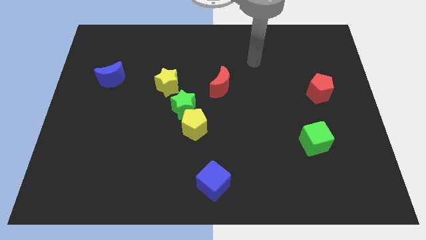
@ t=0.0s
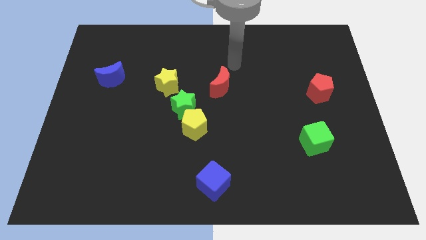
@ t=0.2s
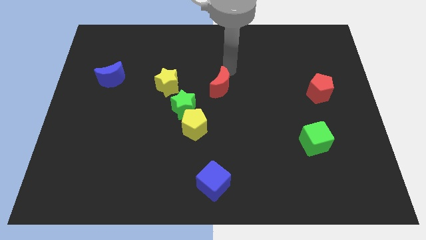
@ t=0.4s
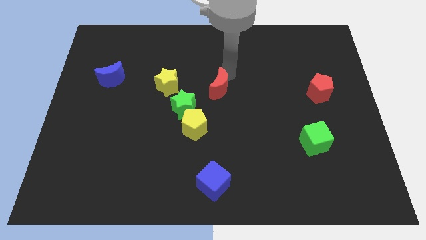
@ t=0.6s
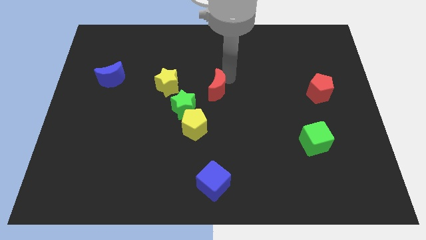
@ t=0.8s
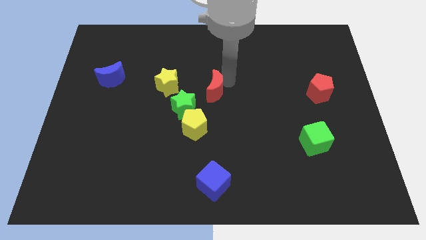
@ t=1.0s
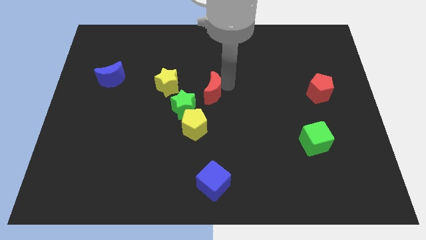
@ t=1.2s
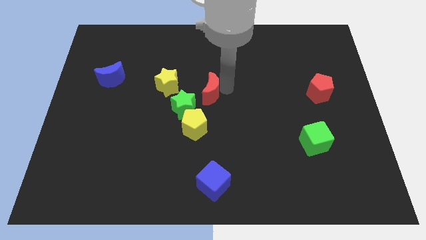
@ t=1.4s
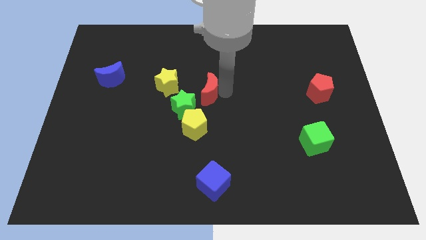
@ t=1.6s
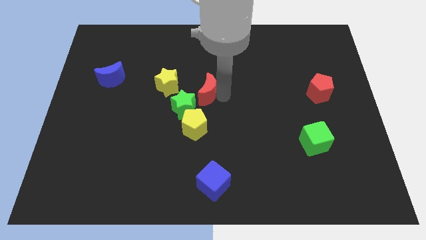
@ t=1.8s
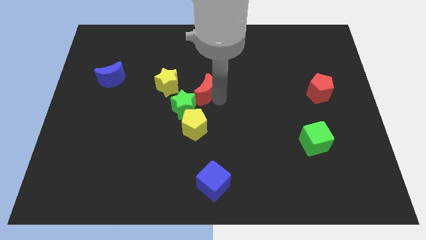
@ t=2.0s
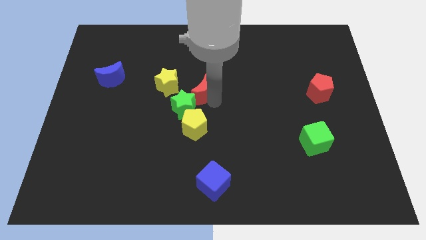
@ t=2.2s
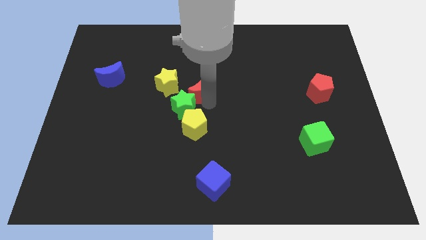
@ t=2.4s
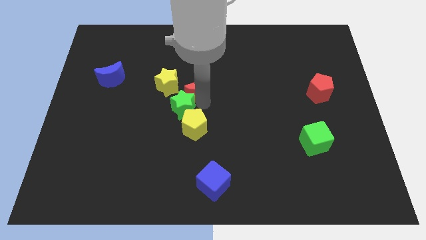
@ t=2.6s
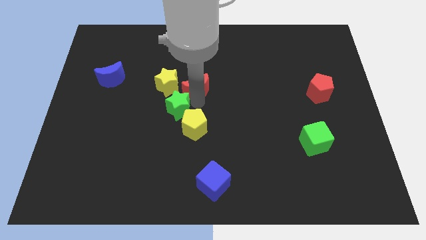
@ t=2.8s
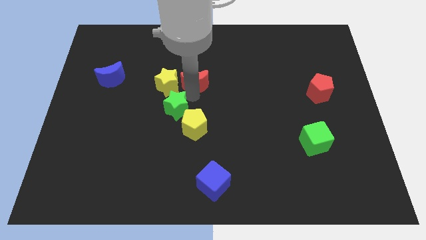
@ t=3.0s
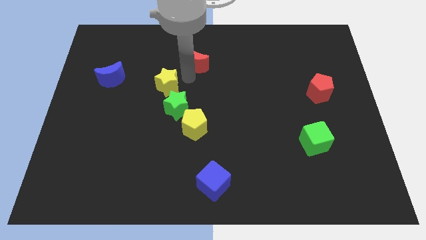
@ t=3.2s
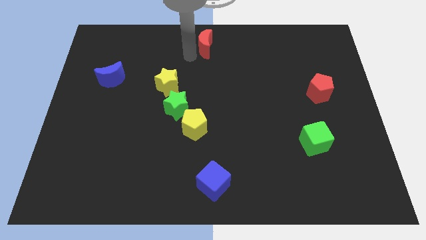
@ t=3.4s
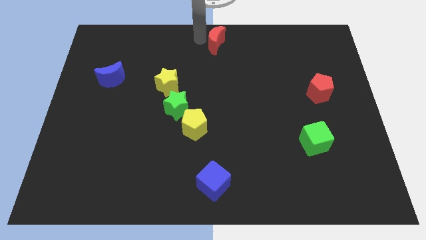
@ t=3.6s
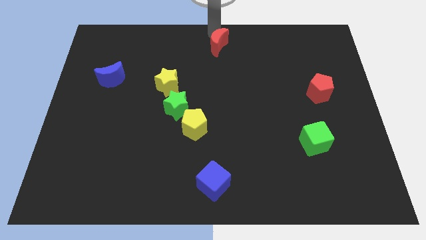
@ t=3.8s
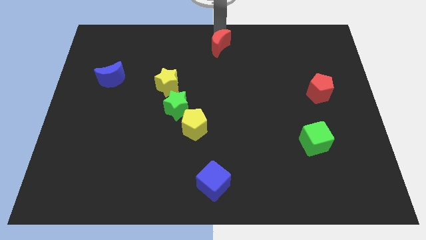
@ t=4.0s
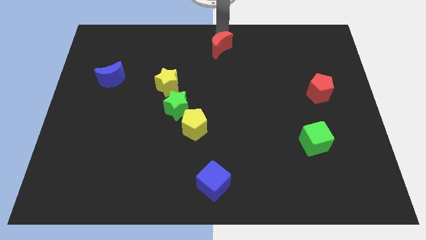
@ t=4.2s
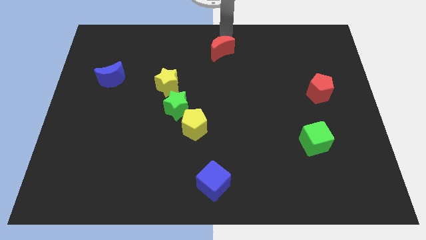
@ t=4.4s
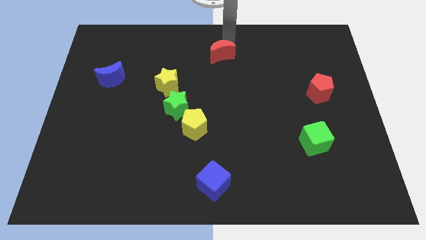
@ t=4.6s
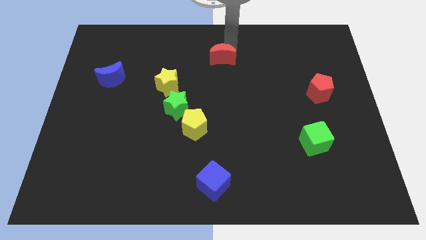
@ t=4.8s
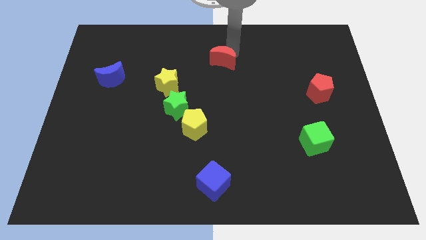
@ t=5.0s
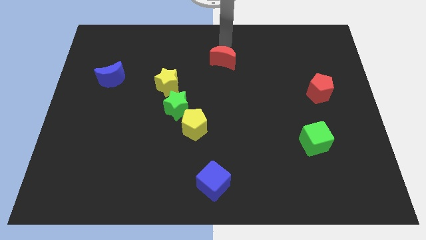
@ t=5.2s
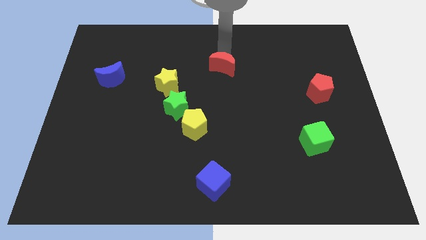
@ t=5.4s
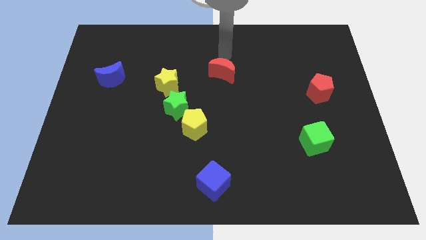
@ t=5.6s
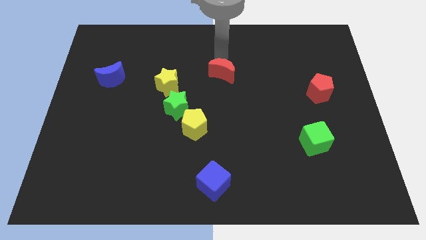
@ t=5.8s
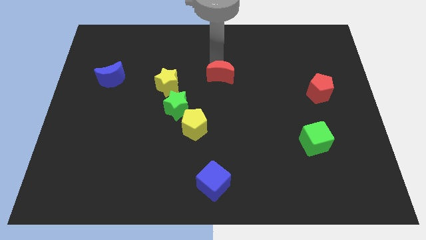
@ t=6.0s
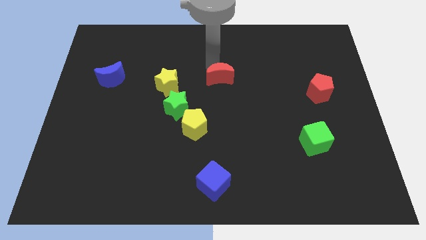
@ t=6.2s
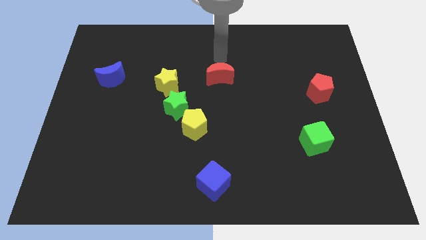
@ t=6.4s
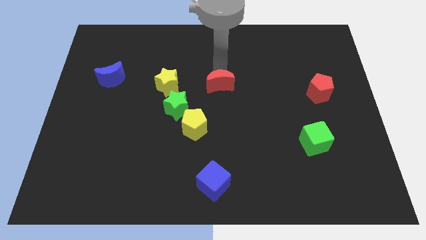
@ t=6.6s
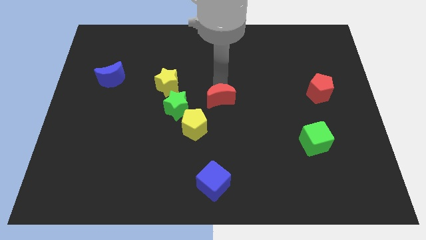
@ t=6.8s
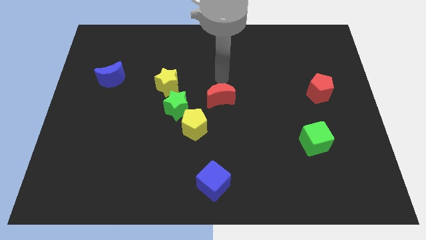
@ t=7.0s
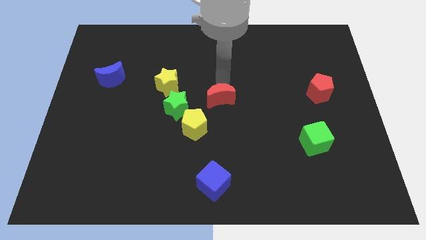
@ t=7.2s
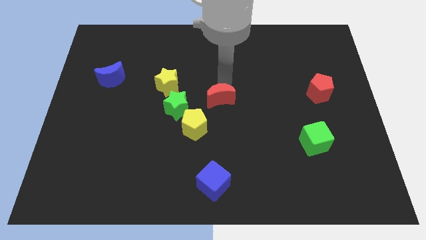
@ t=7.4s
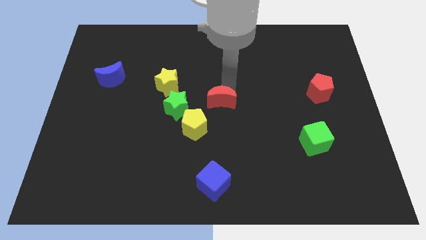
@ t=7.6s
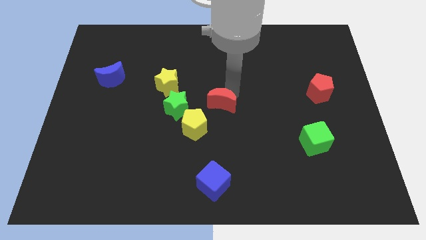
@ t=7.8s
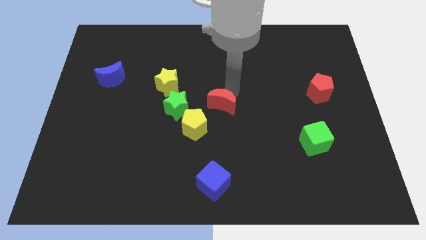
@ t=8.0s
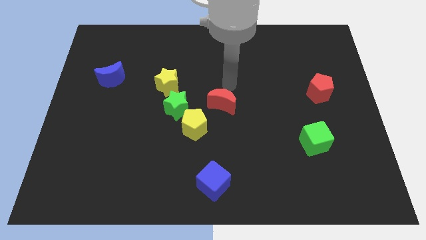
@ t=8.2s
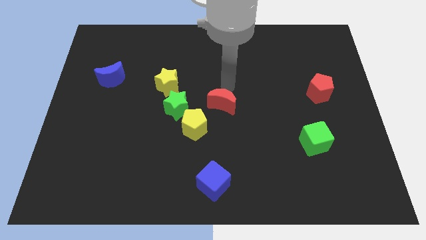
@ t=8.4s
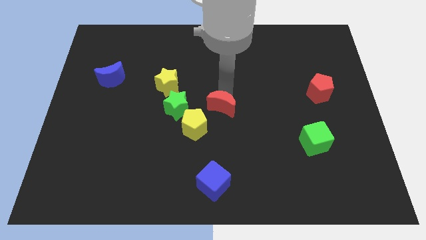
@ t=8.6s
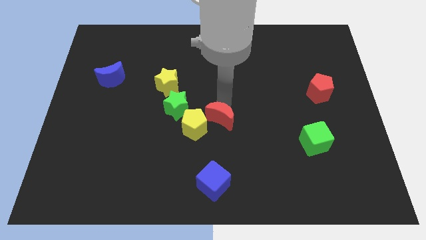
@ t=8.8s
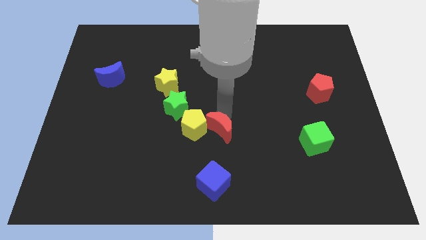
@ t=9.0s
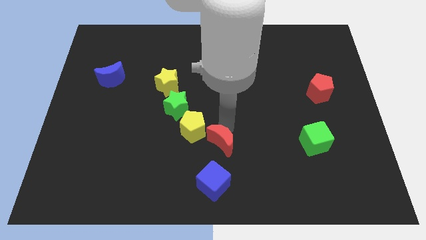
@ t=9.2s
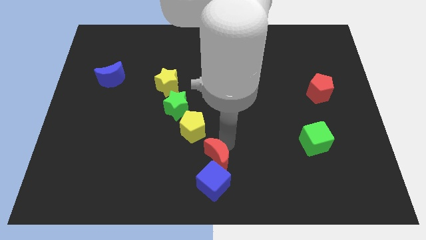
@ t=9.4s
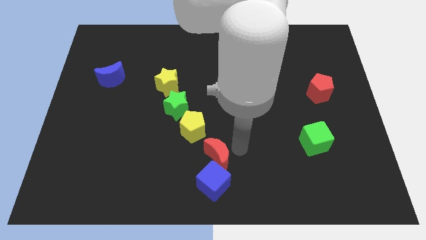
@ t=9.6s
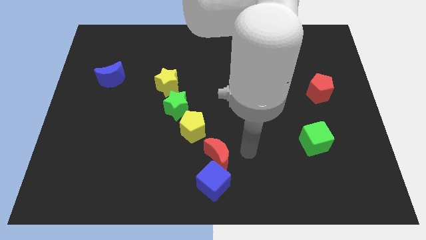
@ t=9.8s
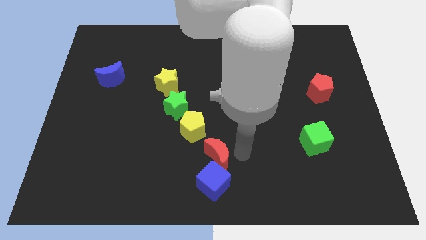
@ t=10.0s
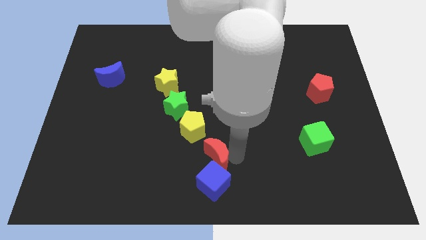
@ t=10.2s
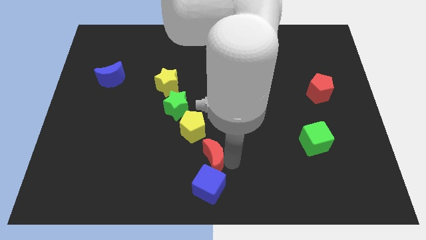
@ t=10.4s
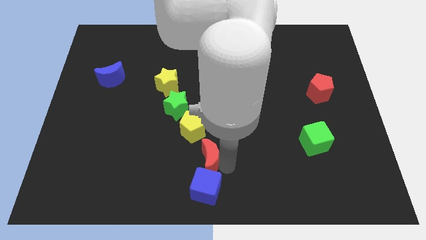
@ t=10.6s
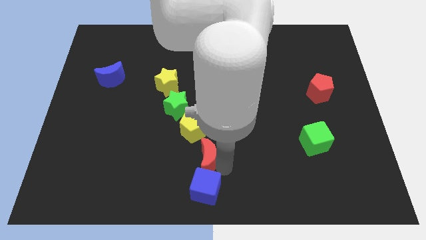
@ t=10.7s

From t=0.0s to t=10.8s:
move the red moon to the top left side of the blue cube

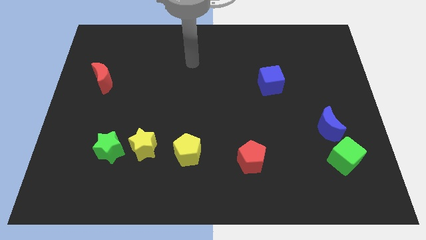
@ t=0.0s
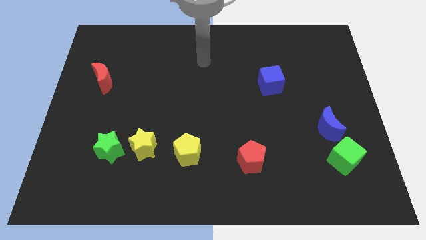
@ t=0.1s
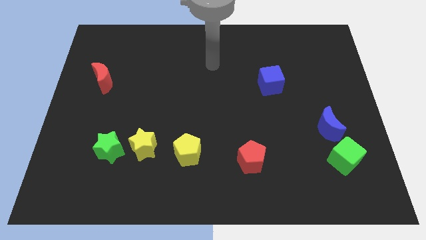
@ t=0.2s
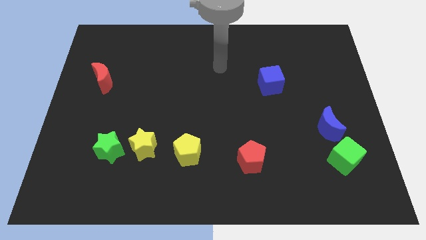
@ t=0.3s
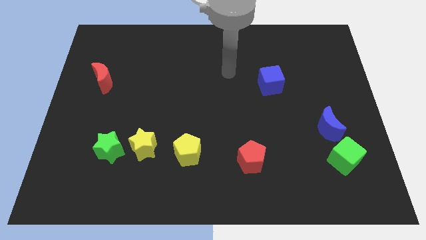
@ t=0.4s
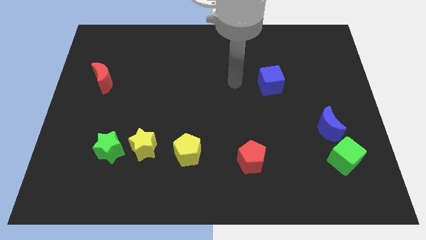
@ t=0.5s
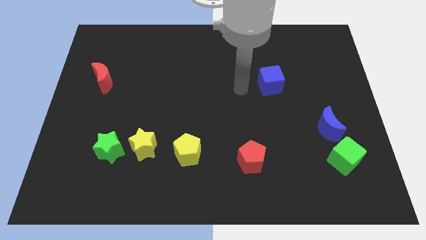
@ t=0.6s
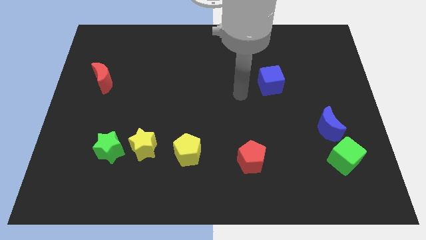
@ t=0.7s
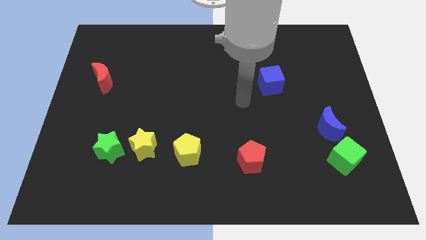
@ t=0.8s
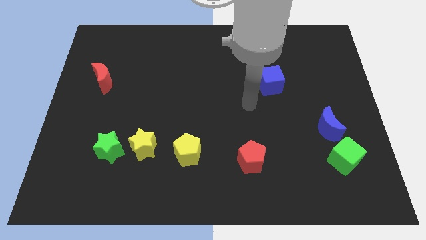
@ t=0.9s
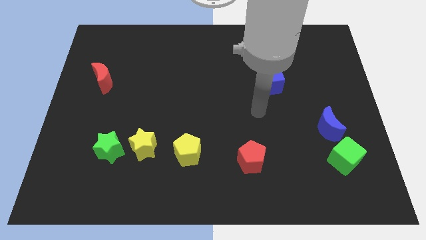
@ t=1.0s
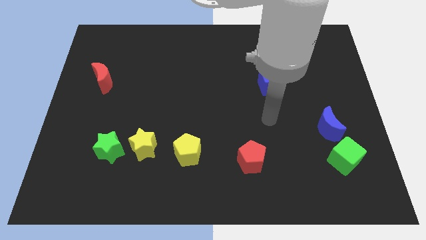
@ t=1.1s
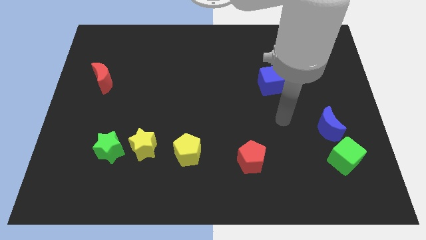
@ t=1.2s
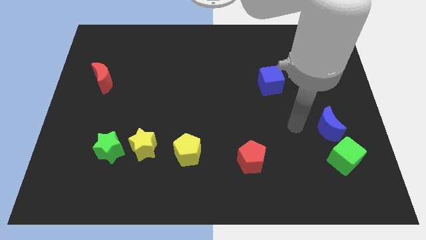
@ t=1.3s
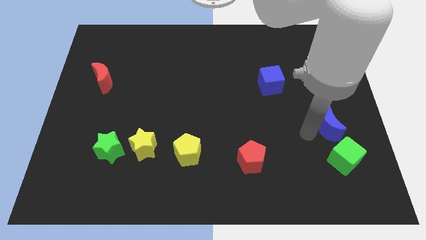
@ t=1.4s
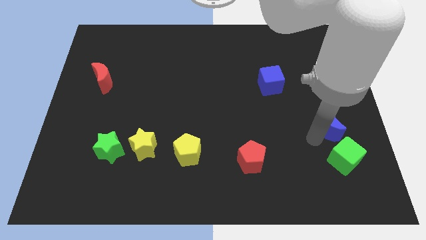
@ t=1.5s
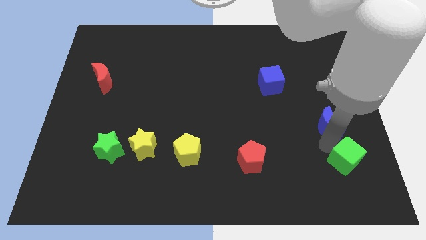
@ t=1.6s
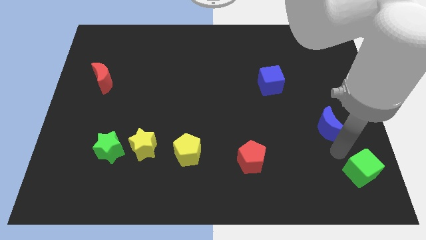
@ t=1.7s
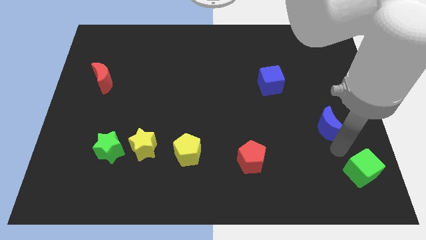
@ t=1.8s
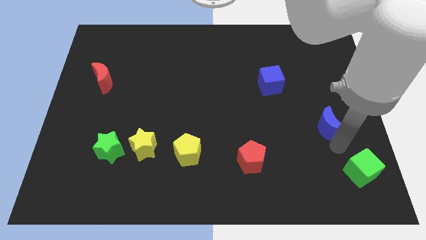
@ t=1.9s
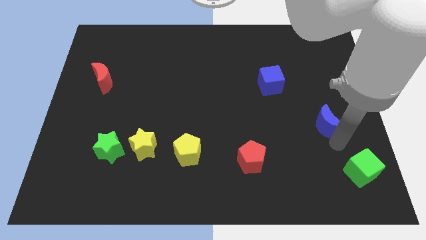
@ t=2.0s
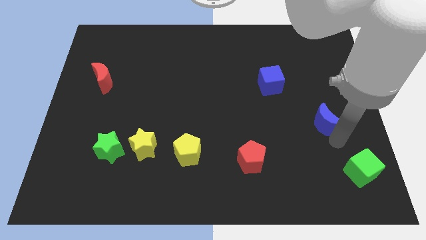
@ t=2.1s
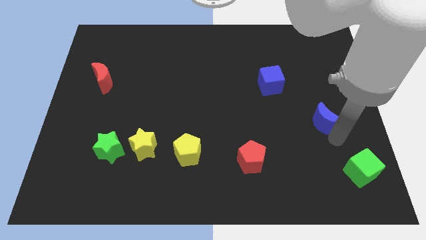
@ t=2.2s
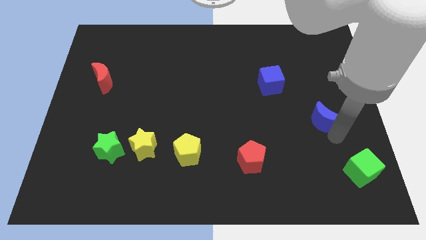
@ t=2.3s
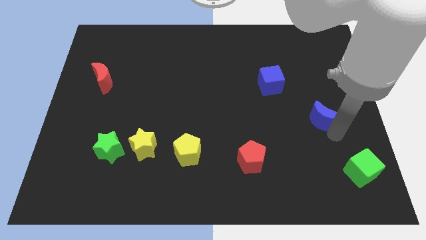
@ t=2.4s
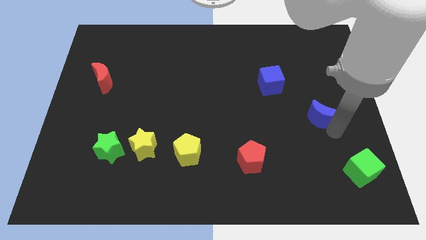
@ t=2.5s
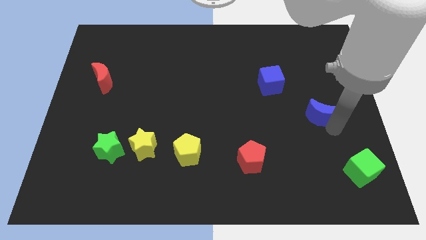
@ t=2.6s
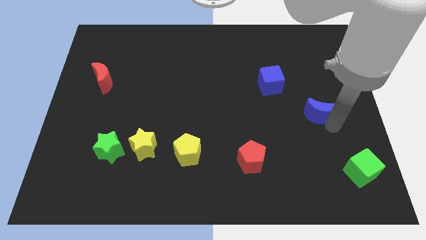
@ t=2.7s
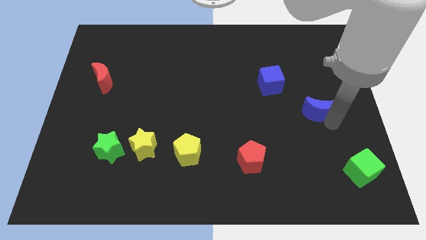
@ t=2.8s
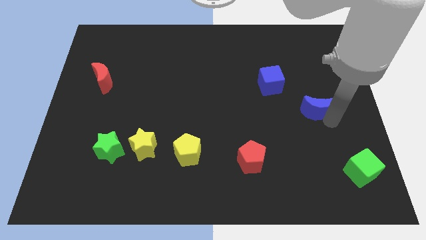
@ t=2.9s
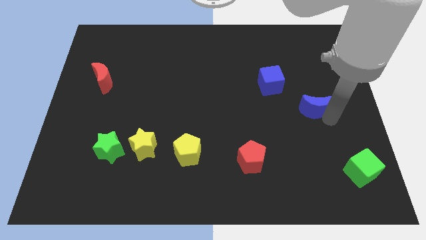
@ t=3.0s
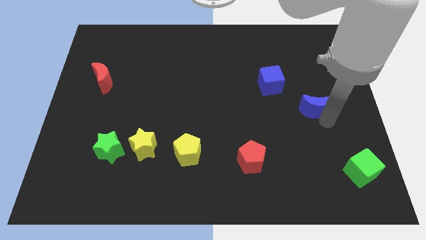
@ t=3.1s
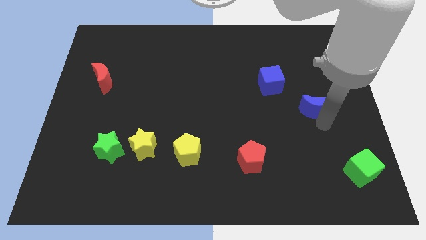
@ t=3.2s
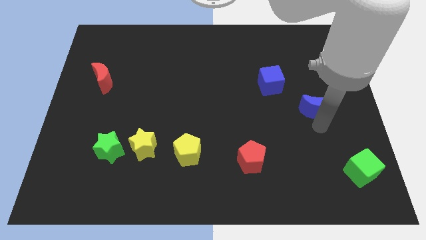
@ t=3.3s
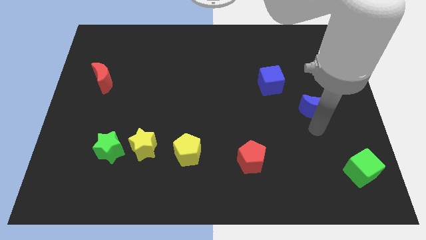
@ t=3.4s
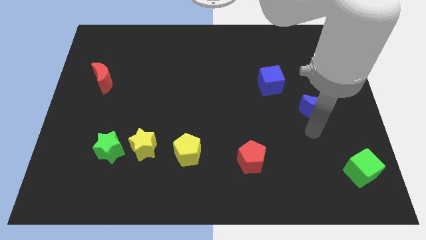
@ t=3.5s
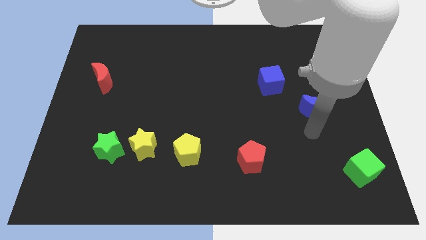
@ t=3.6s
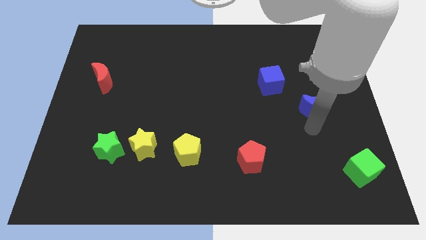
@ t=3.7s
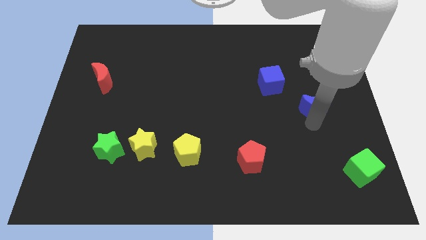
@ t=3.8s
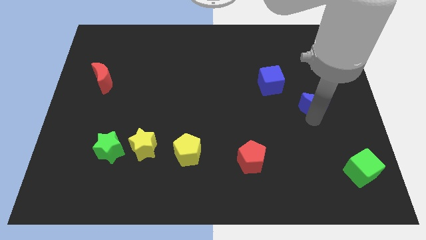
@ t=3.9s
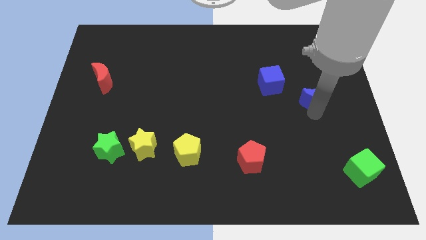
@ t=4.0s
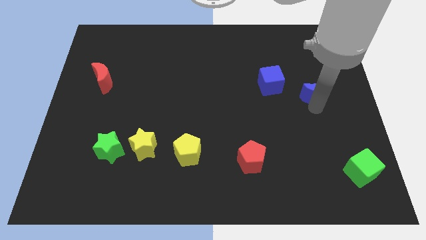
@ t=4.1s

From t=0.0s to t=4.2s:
push the blue moon right of the blue cube
